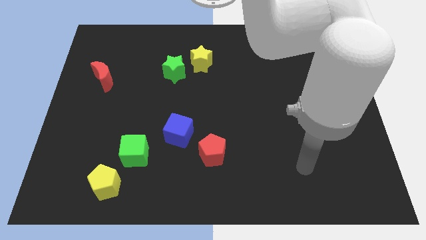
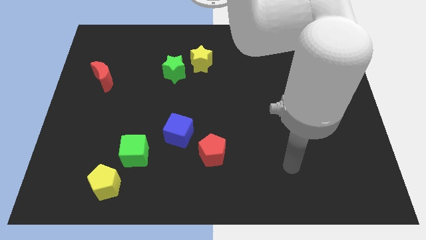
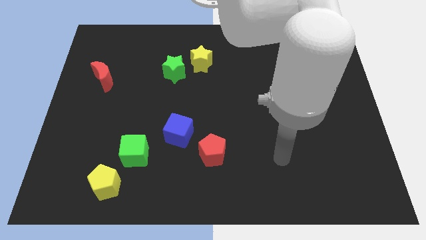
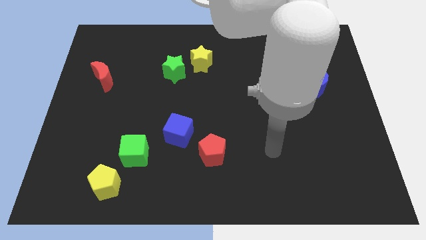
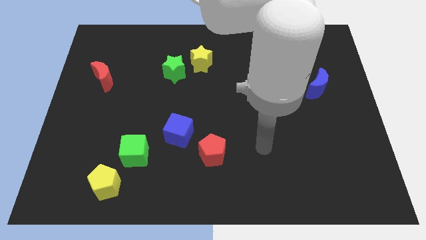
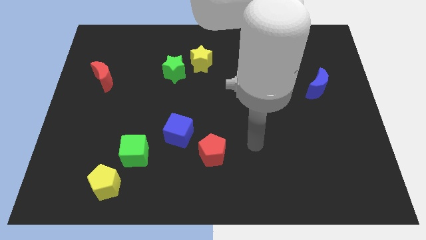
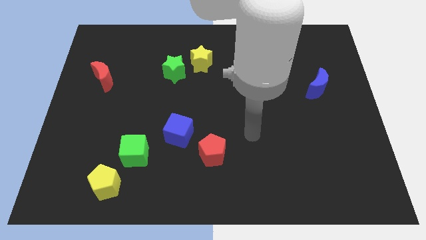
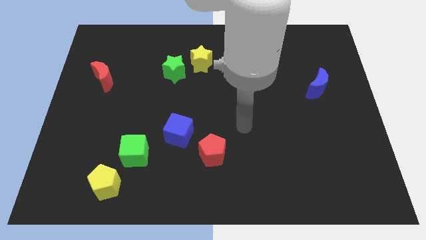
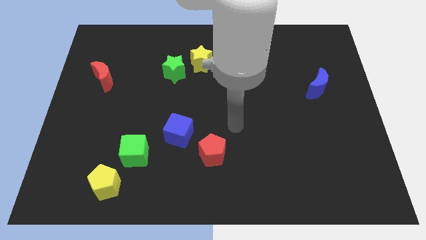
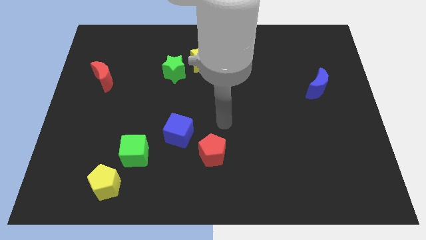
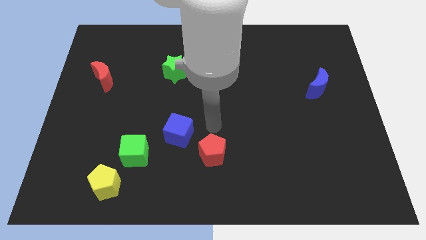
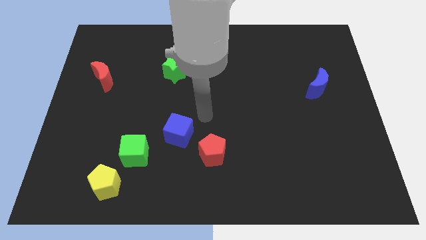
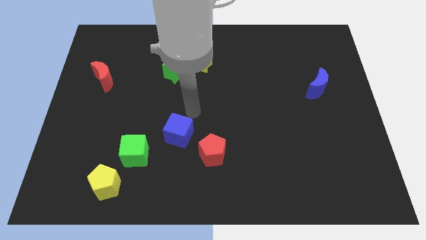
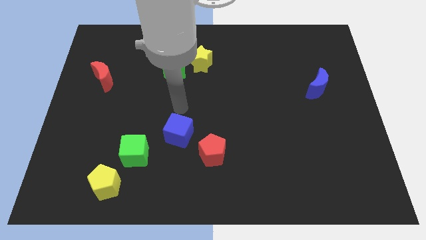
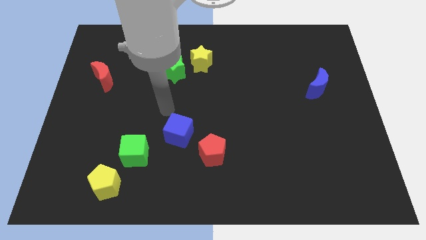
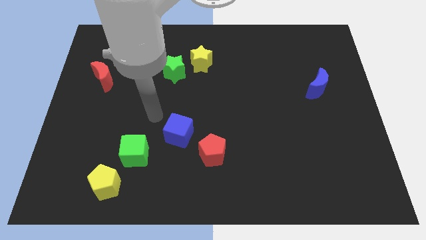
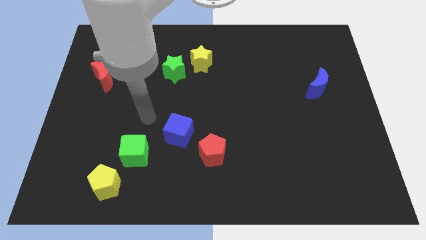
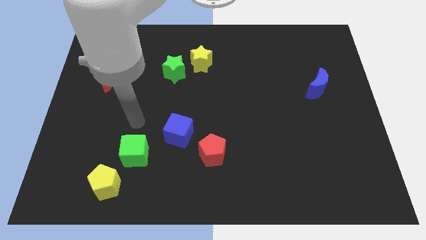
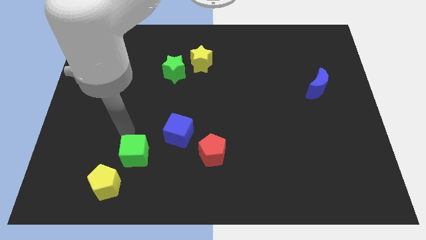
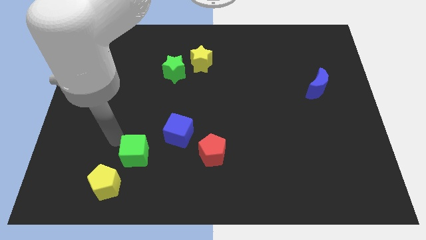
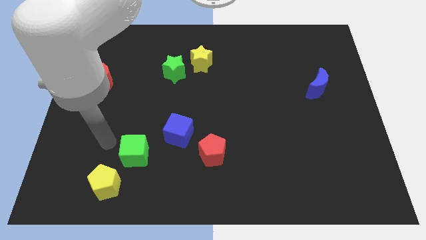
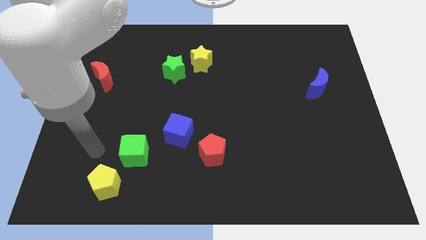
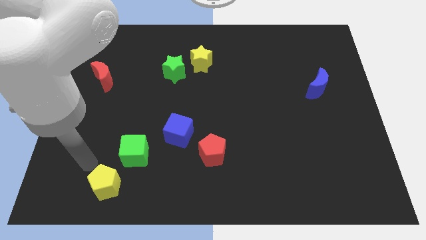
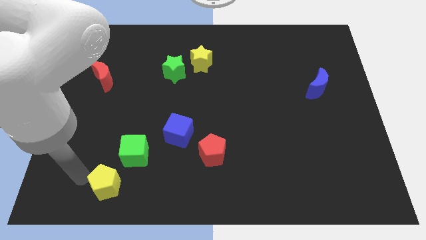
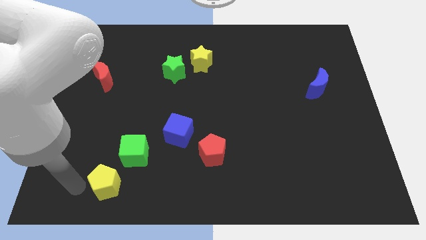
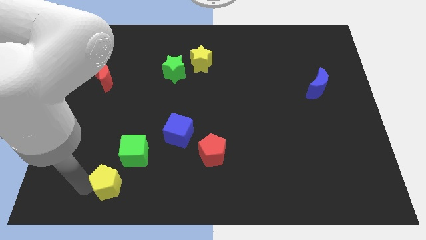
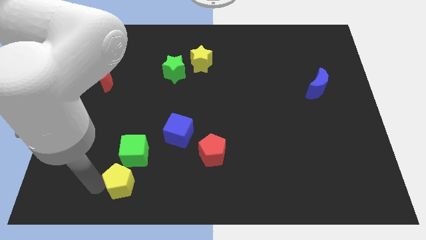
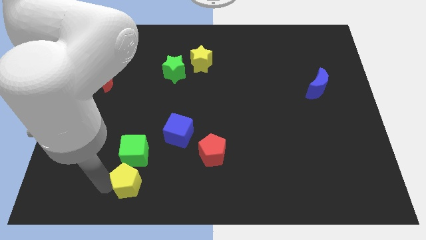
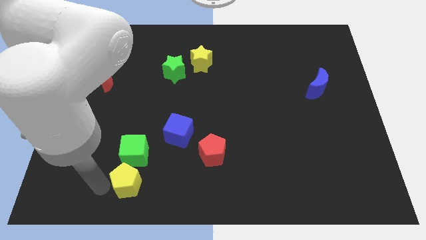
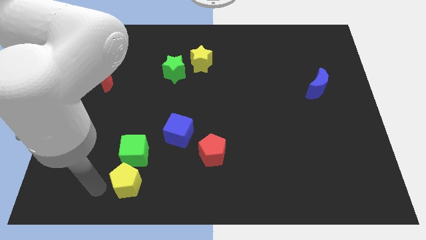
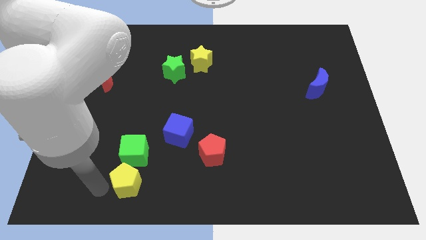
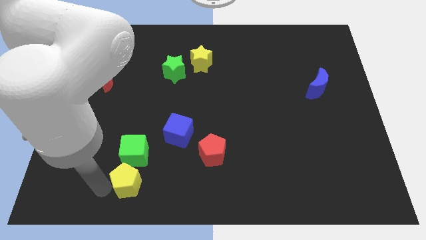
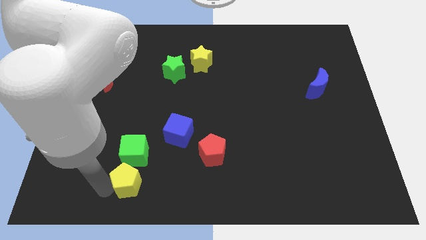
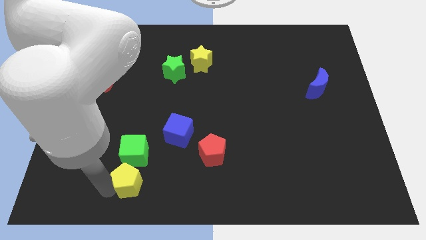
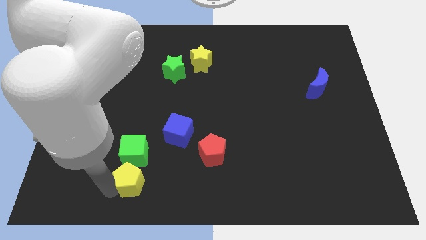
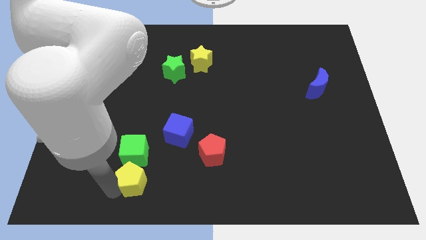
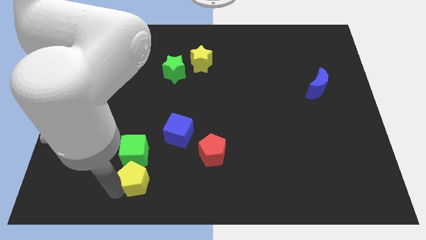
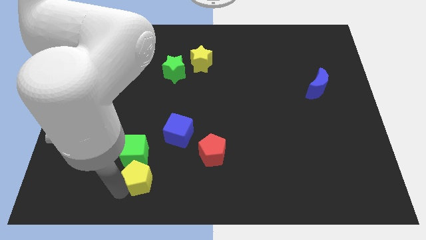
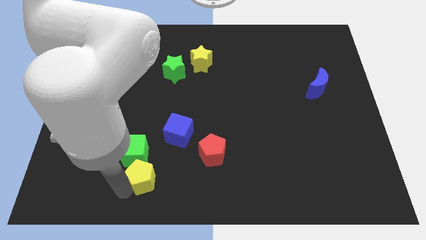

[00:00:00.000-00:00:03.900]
slide the yellow pentagon right somewhat

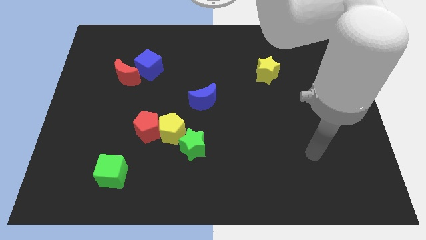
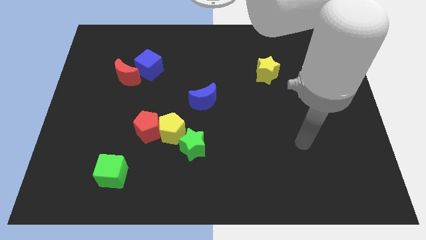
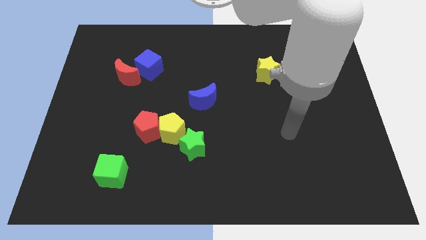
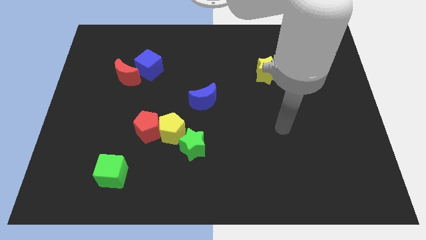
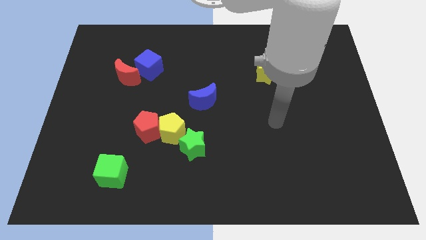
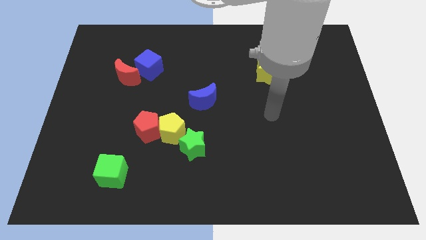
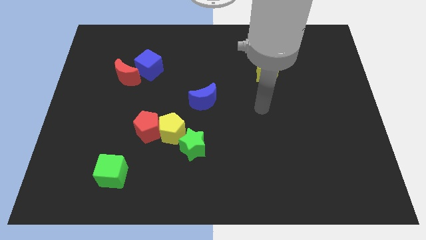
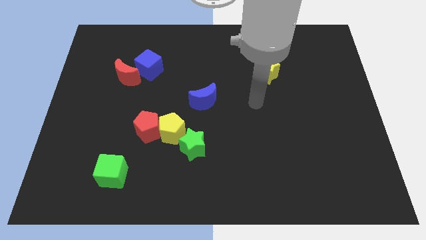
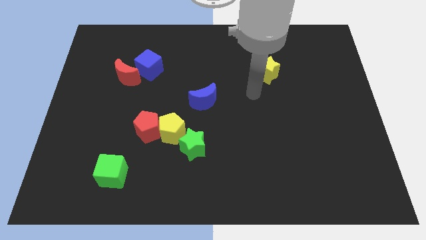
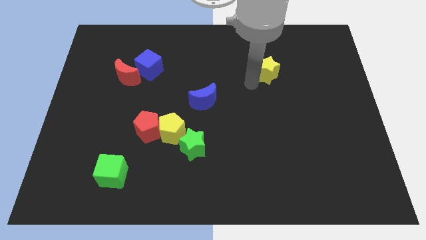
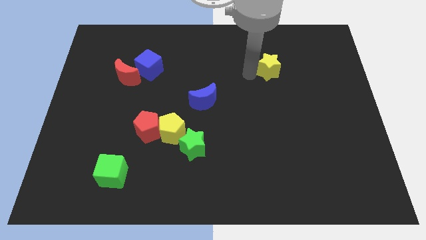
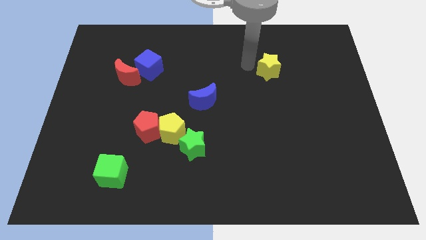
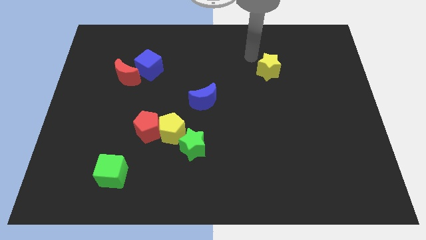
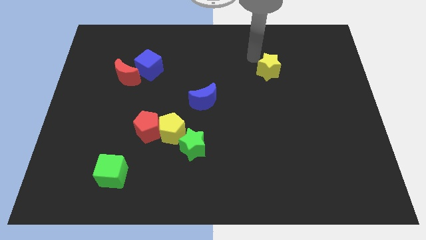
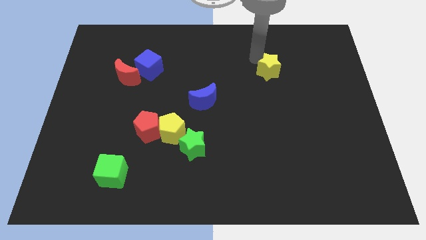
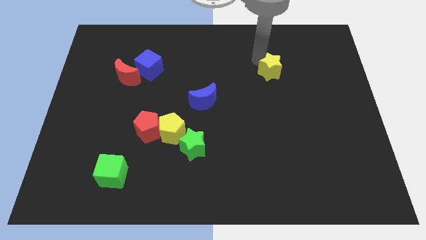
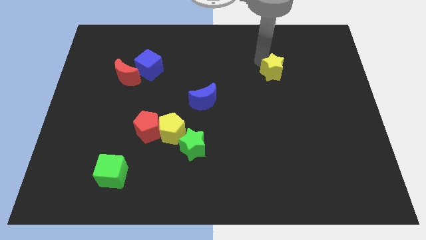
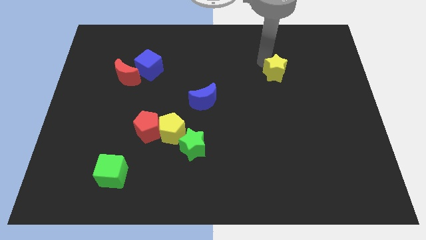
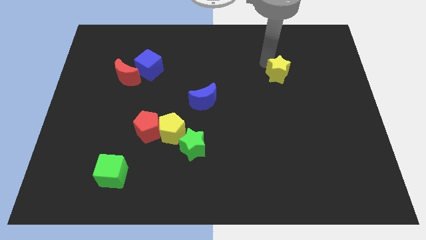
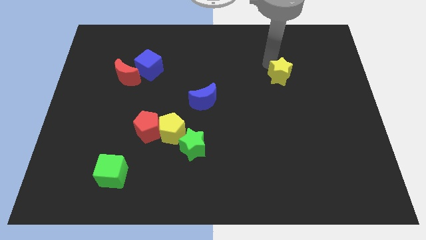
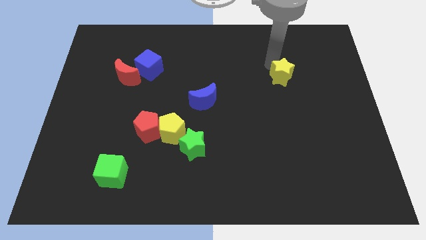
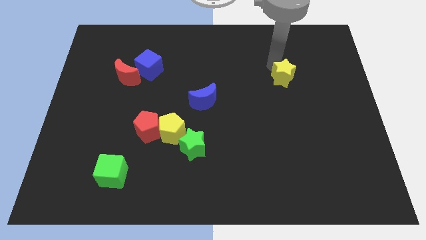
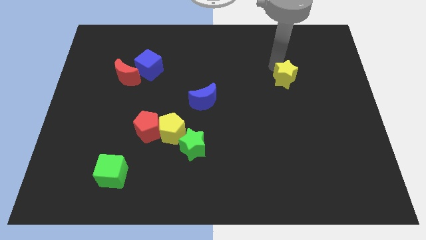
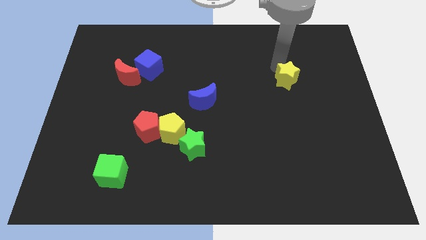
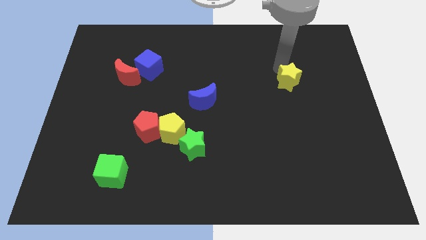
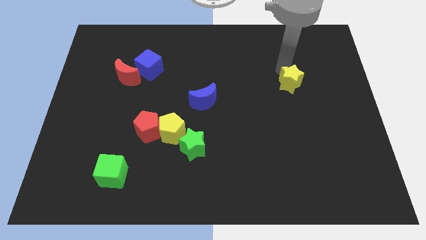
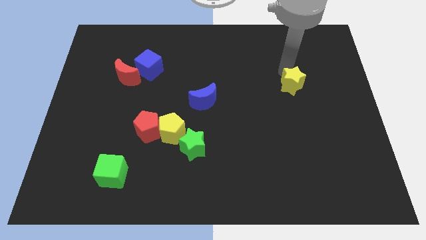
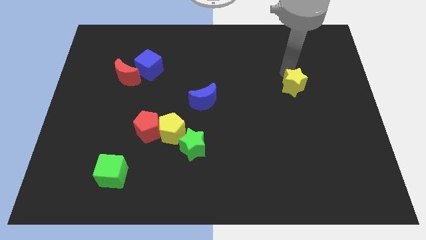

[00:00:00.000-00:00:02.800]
move the yellow star down and then to the right a bit

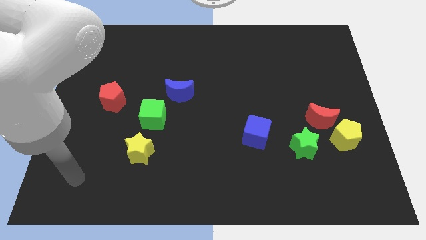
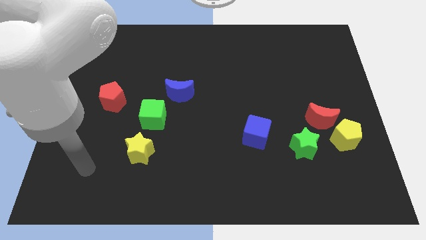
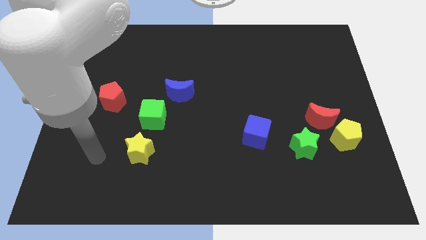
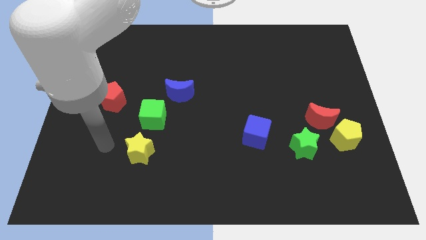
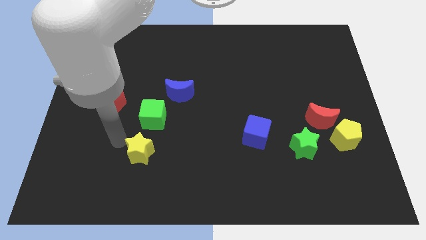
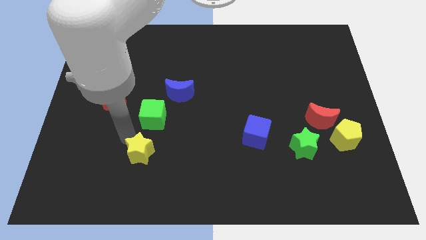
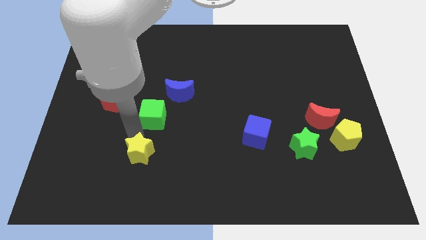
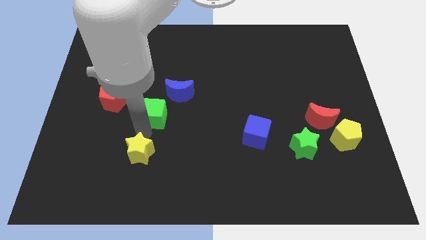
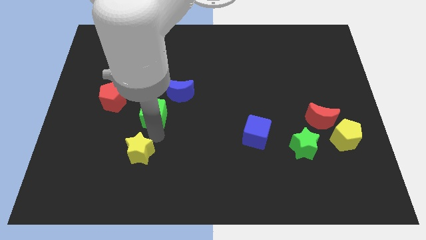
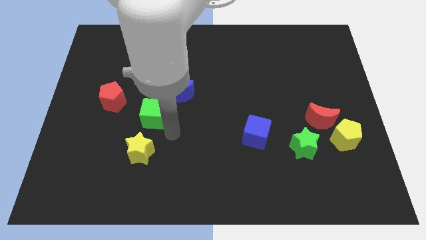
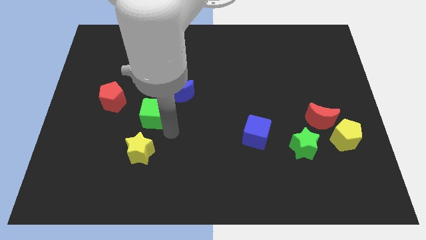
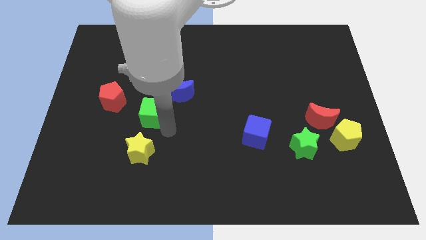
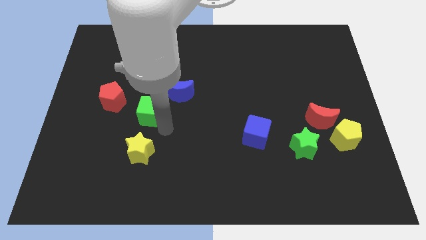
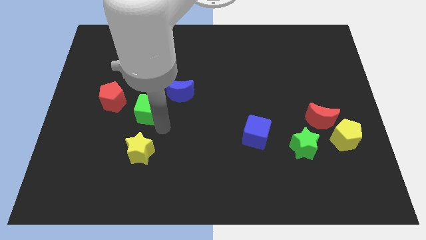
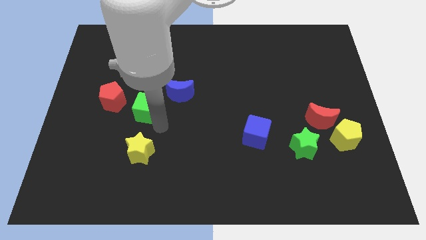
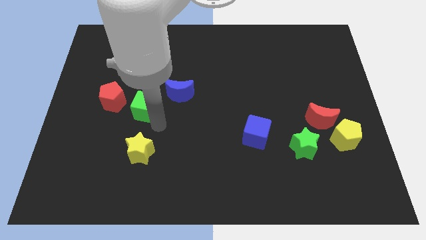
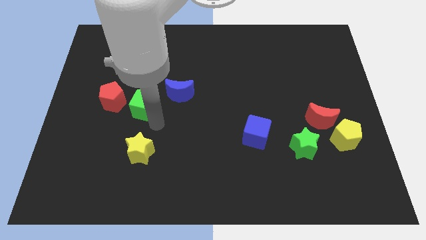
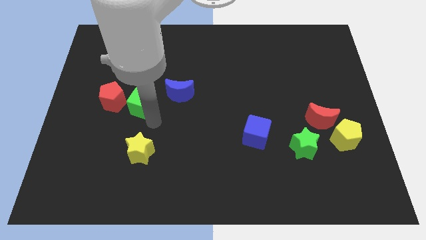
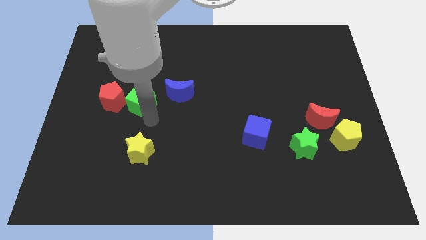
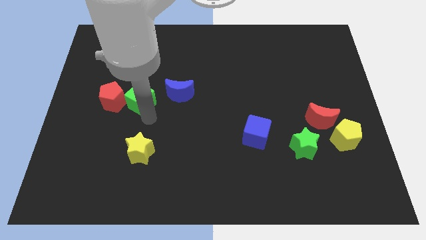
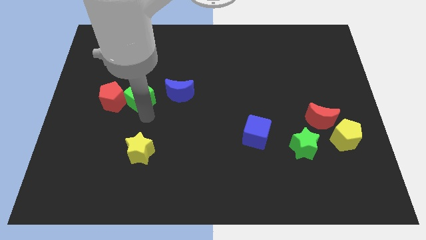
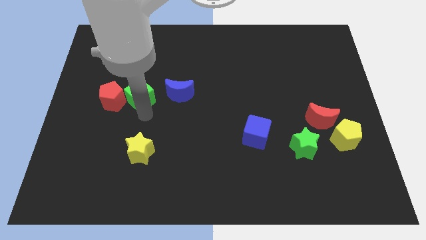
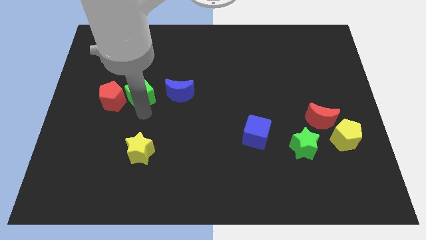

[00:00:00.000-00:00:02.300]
move the green cube diagonally upwards and to the left a little
